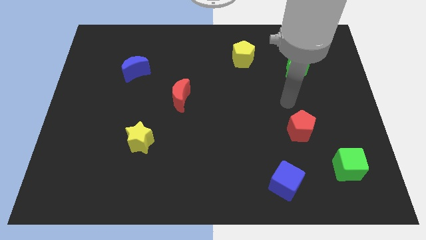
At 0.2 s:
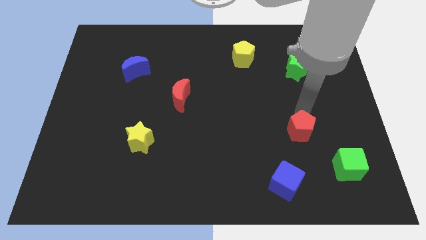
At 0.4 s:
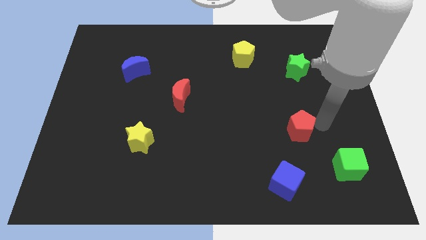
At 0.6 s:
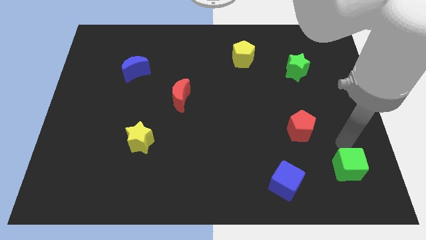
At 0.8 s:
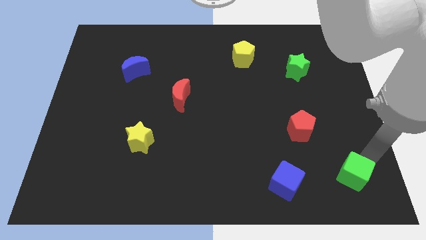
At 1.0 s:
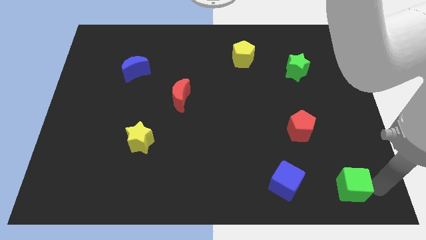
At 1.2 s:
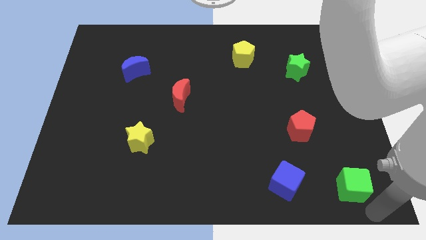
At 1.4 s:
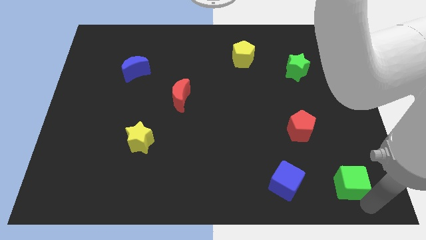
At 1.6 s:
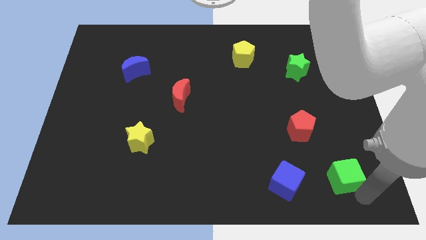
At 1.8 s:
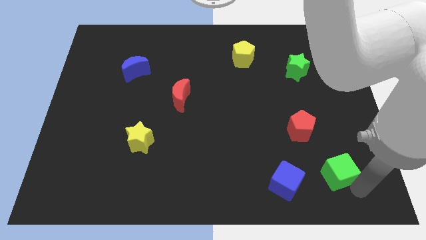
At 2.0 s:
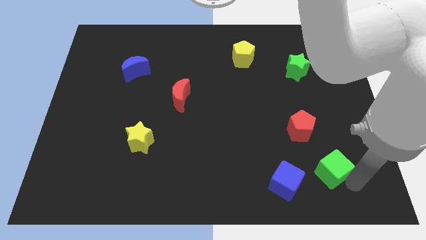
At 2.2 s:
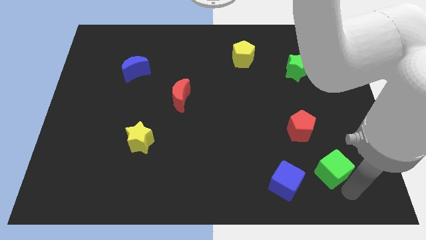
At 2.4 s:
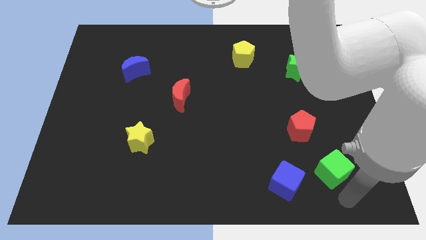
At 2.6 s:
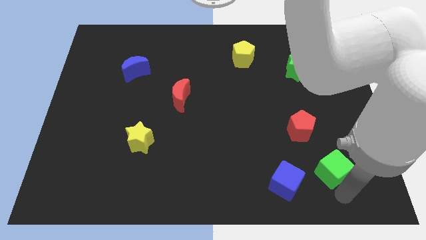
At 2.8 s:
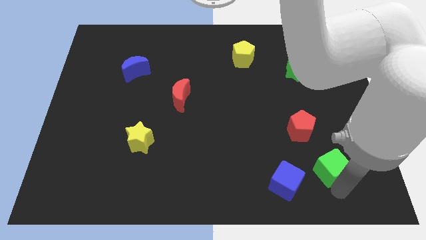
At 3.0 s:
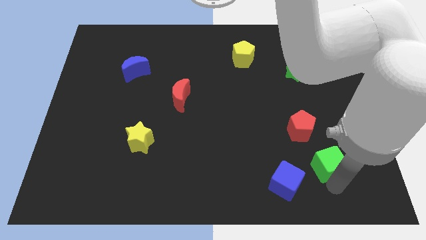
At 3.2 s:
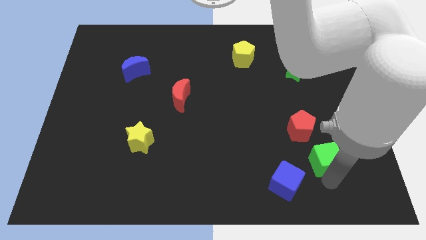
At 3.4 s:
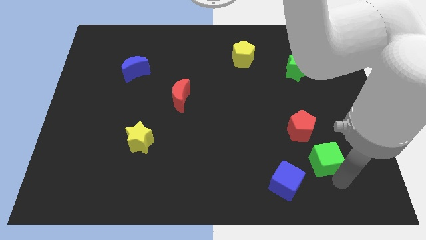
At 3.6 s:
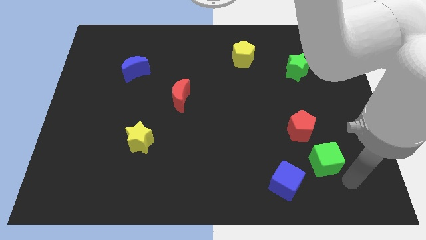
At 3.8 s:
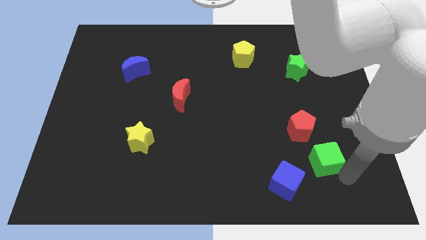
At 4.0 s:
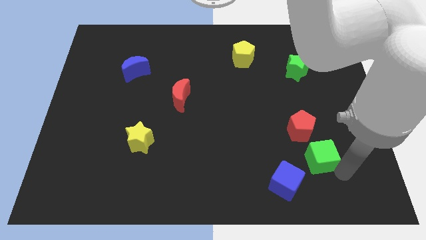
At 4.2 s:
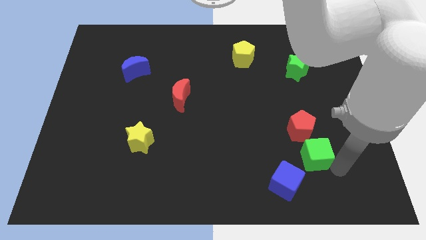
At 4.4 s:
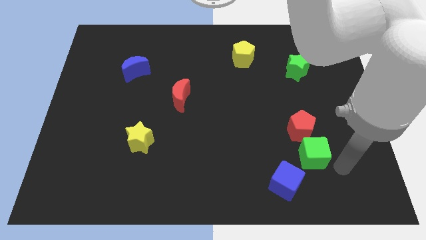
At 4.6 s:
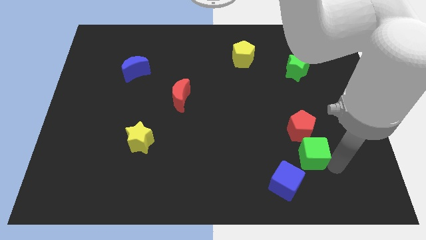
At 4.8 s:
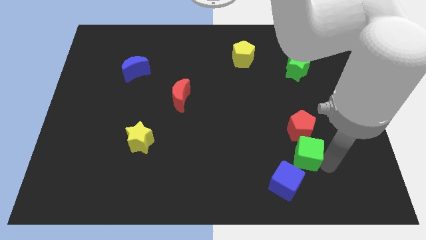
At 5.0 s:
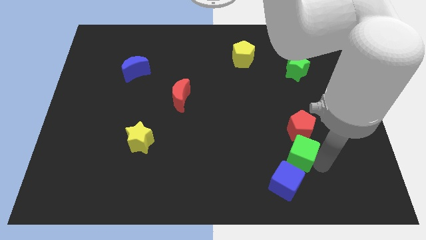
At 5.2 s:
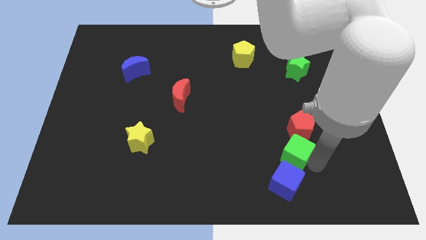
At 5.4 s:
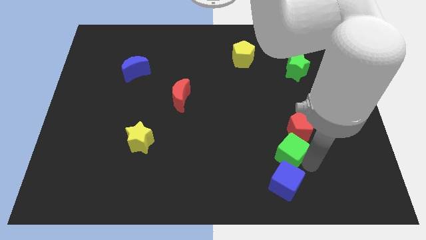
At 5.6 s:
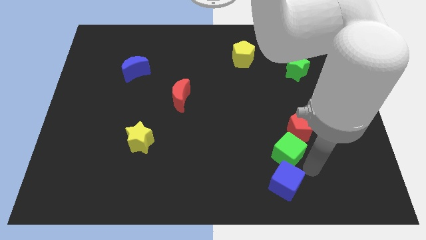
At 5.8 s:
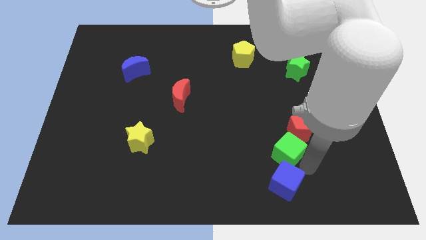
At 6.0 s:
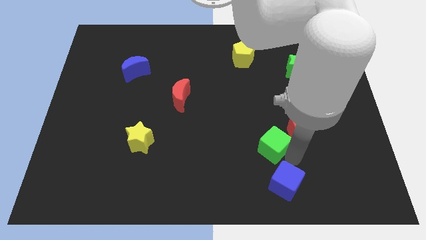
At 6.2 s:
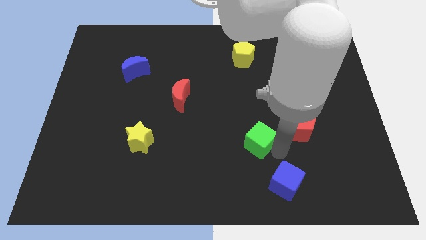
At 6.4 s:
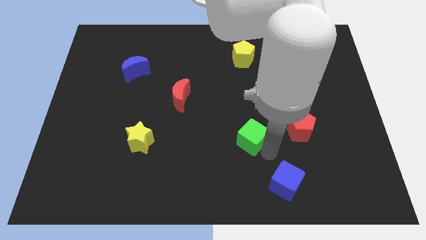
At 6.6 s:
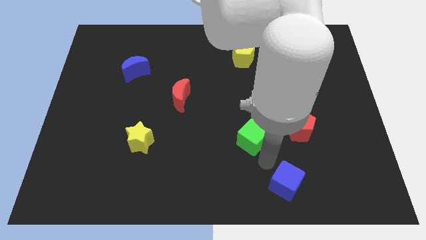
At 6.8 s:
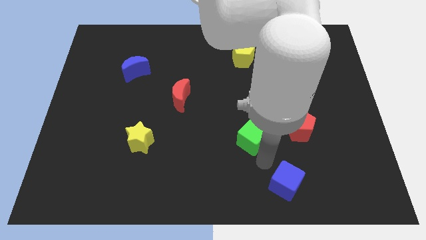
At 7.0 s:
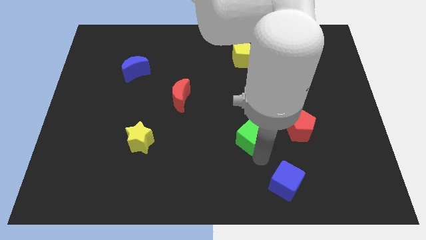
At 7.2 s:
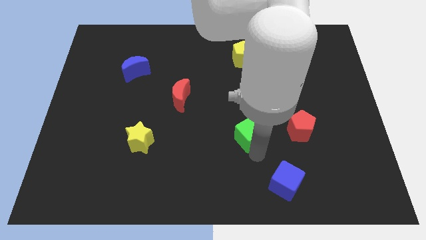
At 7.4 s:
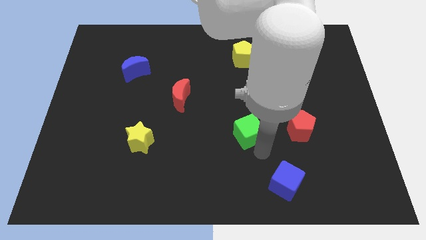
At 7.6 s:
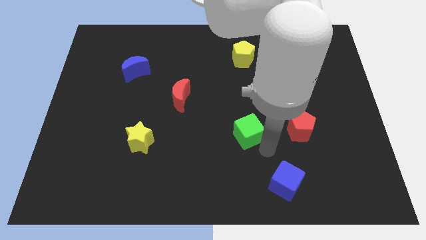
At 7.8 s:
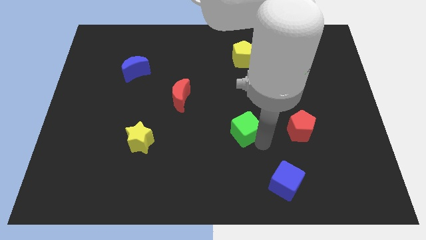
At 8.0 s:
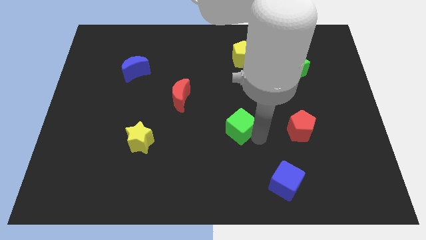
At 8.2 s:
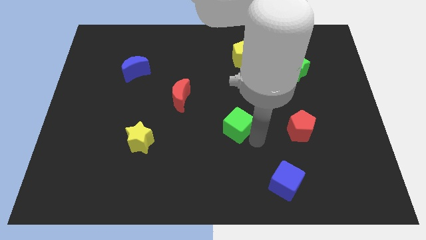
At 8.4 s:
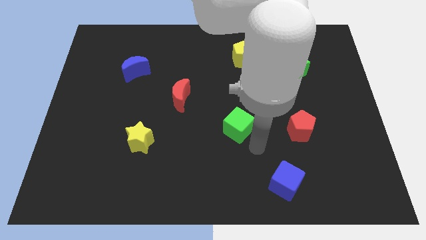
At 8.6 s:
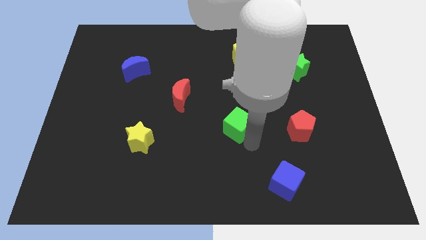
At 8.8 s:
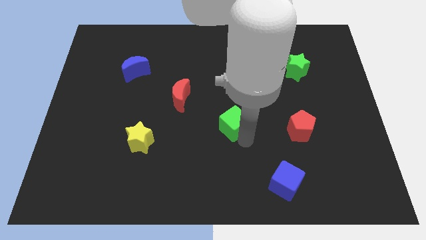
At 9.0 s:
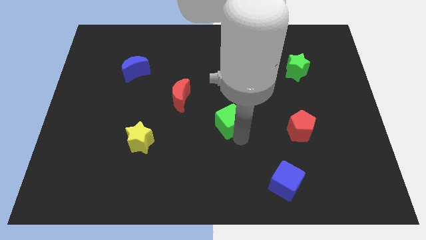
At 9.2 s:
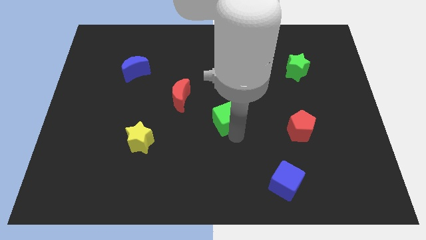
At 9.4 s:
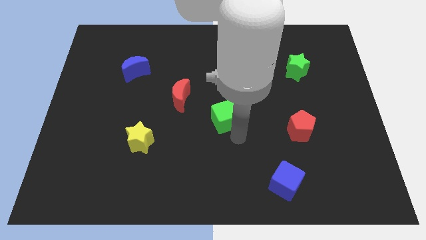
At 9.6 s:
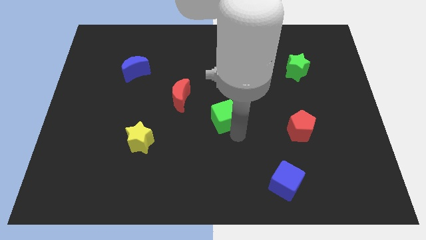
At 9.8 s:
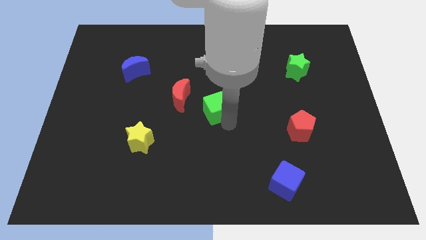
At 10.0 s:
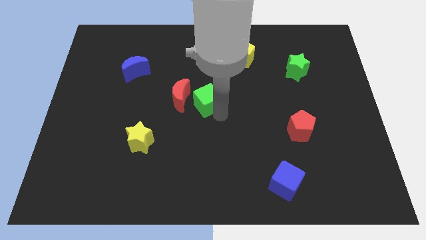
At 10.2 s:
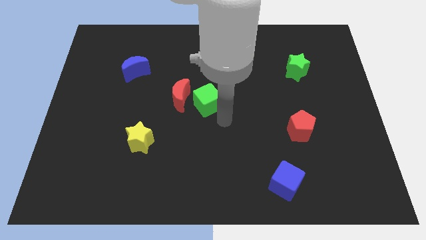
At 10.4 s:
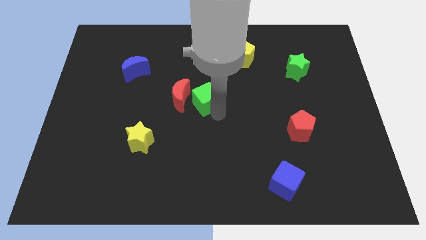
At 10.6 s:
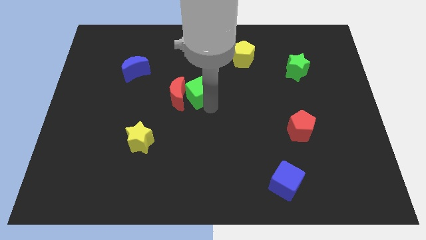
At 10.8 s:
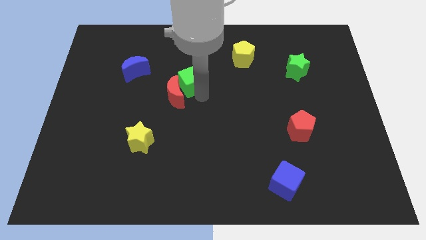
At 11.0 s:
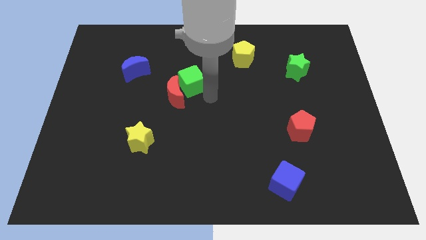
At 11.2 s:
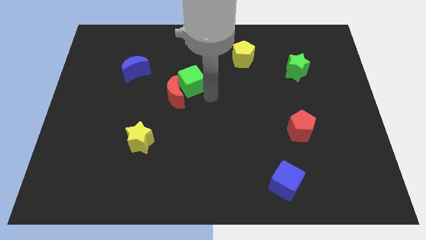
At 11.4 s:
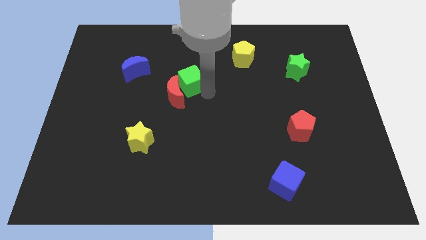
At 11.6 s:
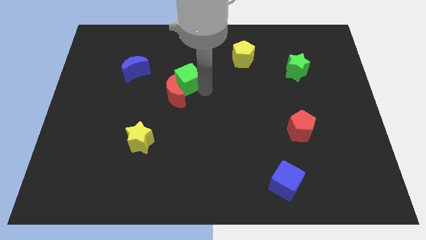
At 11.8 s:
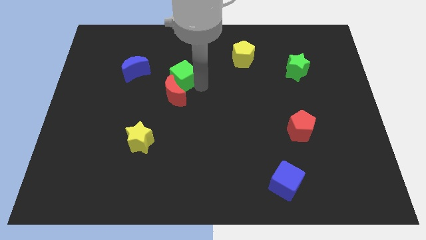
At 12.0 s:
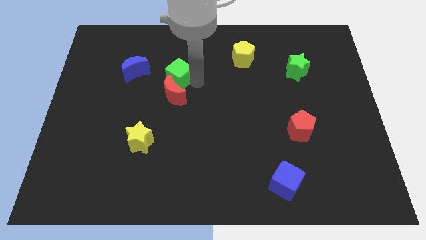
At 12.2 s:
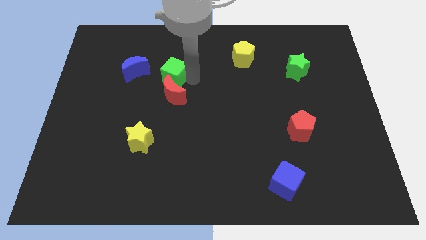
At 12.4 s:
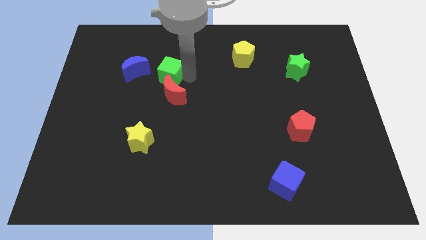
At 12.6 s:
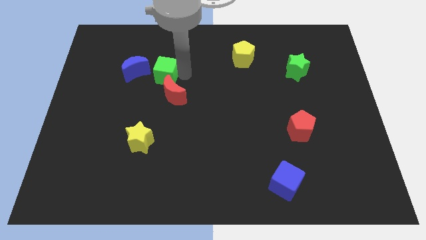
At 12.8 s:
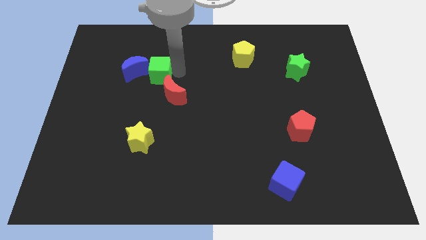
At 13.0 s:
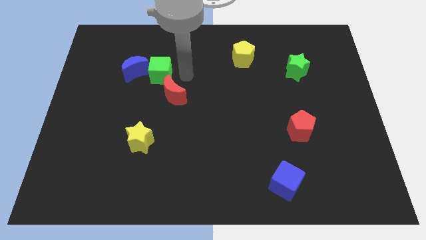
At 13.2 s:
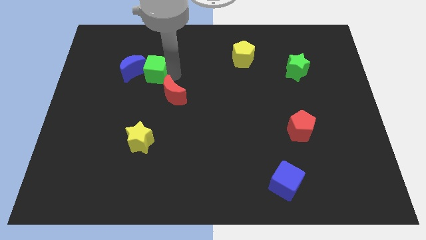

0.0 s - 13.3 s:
push the green cube towards the blue moon

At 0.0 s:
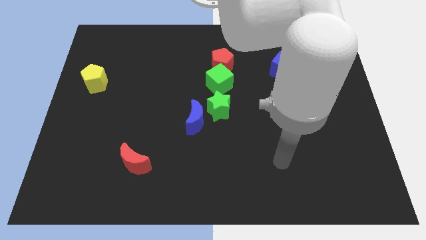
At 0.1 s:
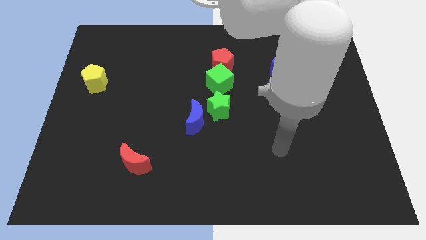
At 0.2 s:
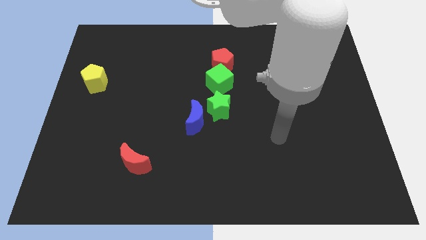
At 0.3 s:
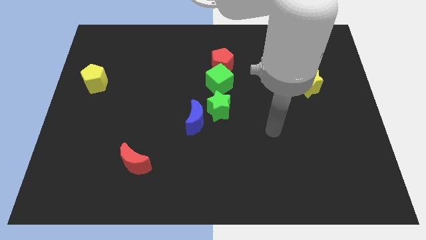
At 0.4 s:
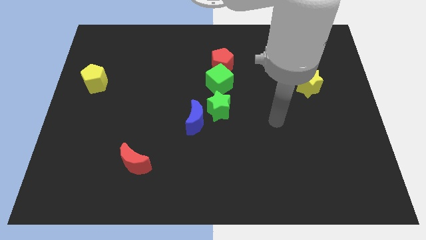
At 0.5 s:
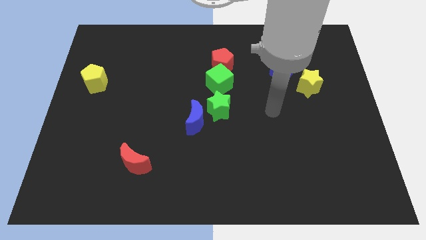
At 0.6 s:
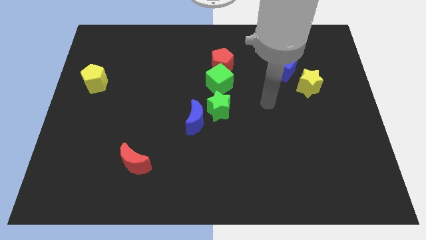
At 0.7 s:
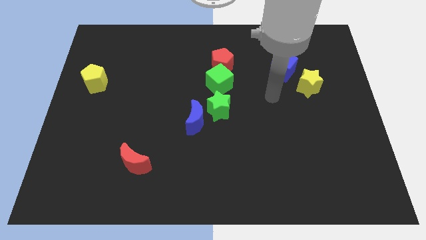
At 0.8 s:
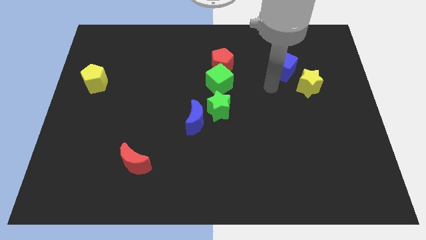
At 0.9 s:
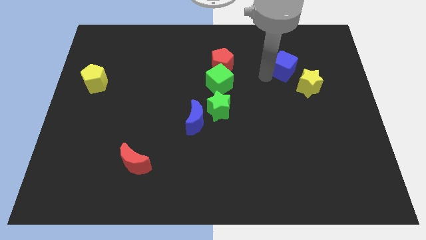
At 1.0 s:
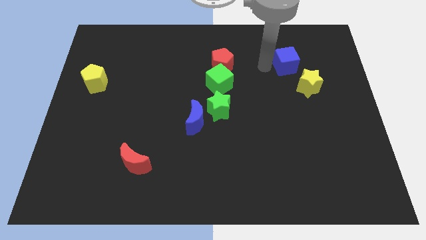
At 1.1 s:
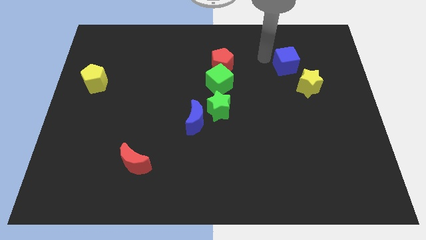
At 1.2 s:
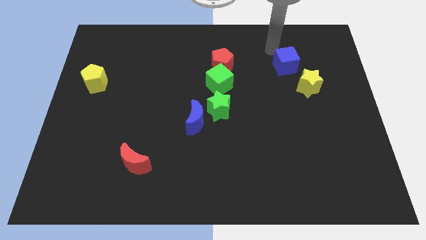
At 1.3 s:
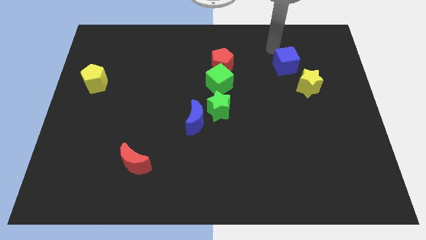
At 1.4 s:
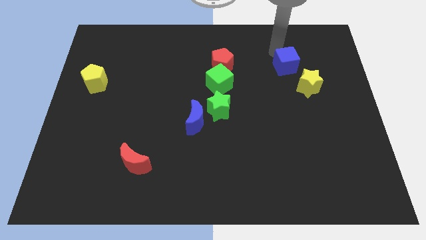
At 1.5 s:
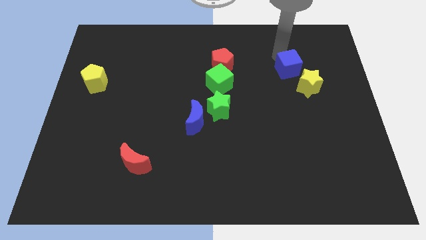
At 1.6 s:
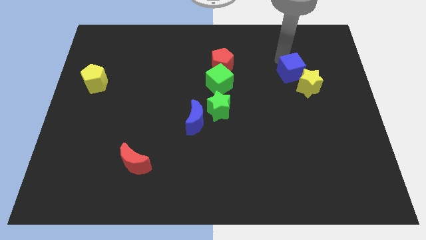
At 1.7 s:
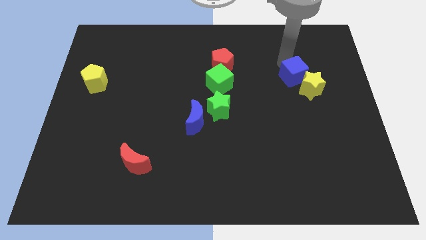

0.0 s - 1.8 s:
push the blue cube next to the yellow star
